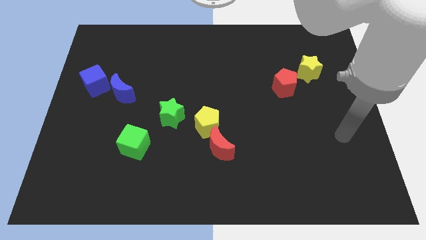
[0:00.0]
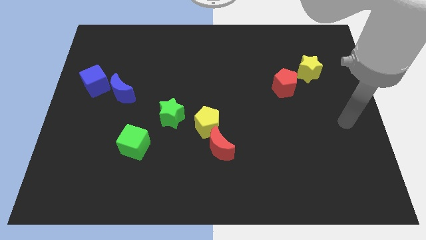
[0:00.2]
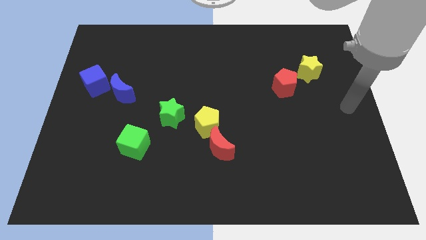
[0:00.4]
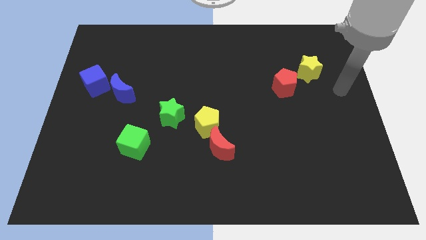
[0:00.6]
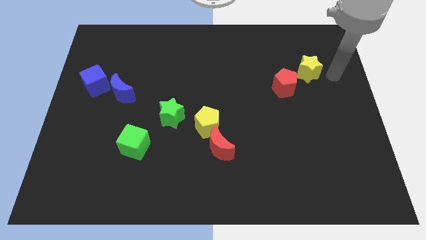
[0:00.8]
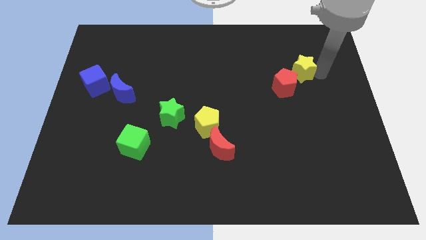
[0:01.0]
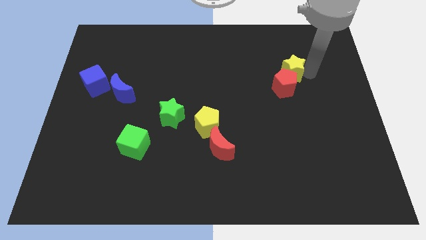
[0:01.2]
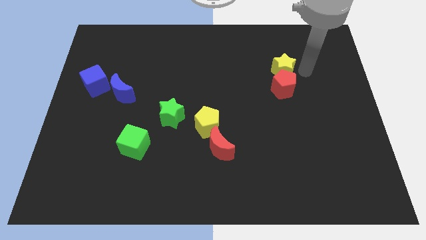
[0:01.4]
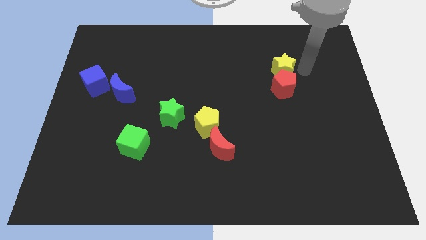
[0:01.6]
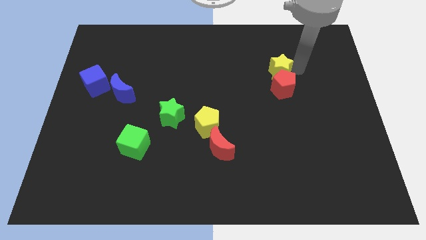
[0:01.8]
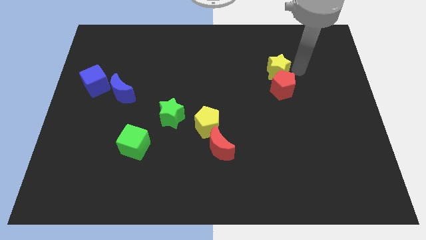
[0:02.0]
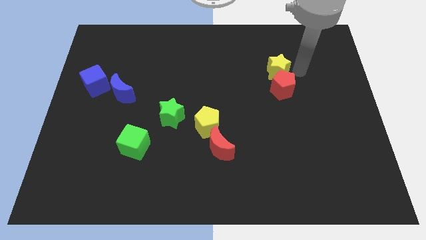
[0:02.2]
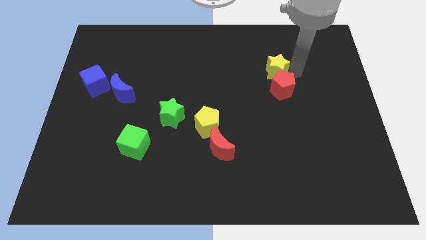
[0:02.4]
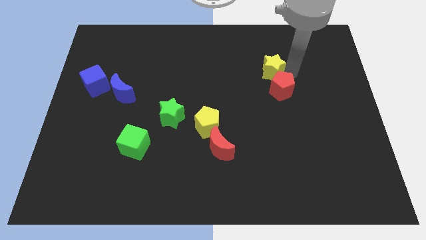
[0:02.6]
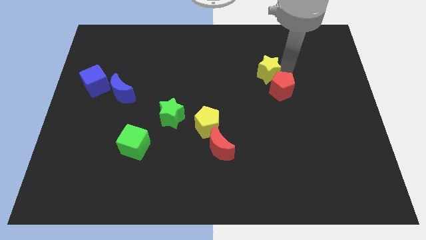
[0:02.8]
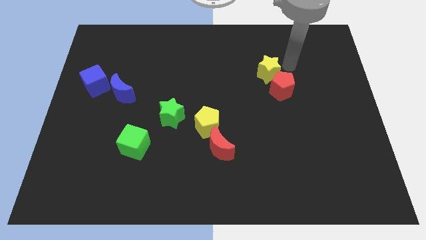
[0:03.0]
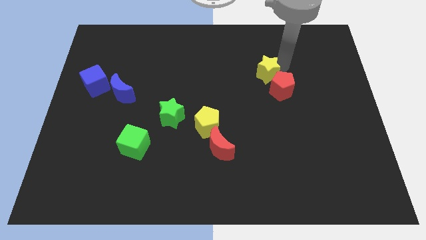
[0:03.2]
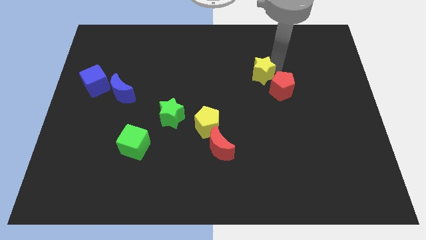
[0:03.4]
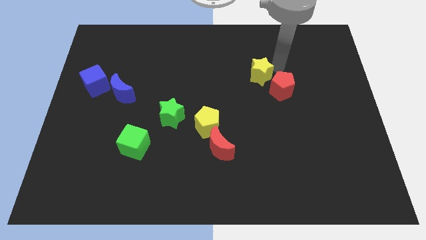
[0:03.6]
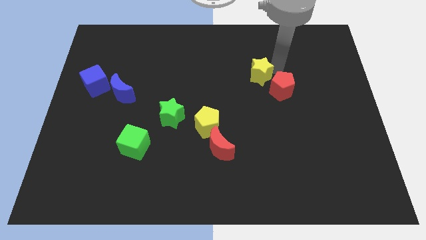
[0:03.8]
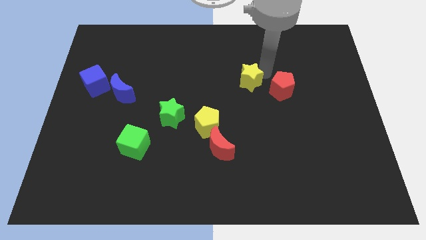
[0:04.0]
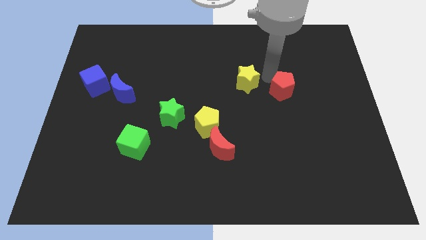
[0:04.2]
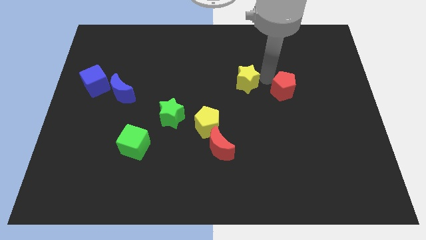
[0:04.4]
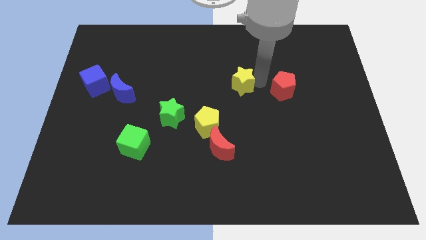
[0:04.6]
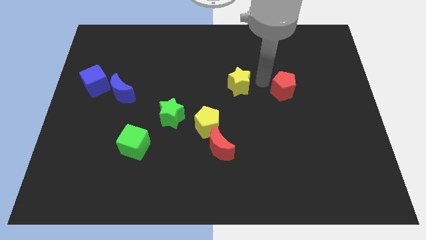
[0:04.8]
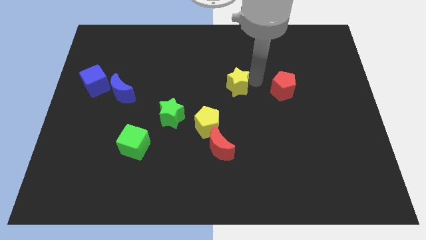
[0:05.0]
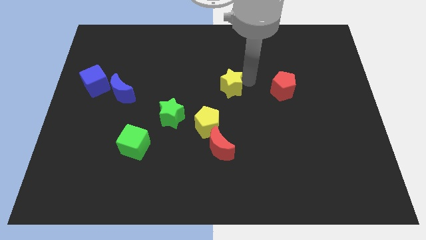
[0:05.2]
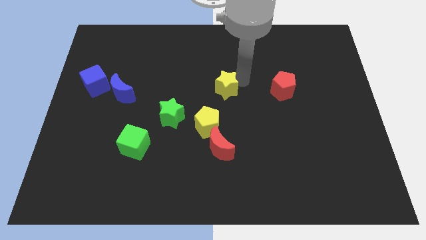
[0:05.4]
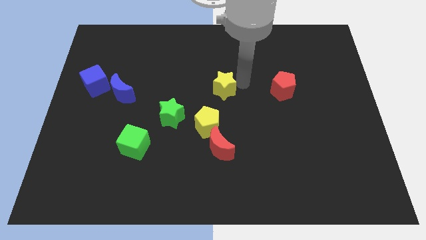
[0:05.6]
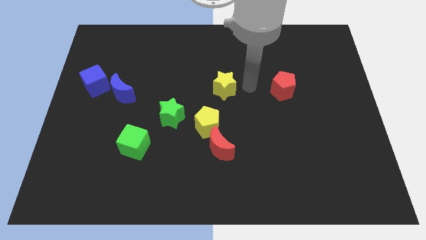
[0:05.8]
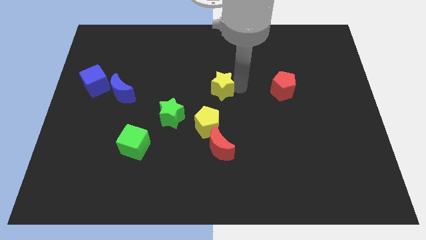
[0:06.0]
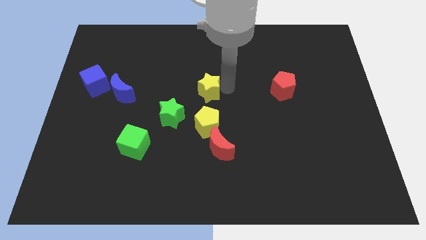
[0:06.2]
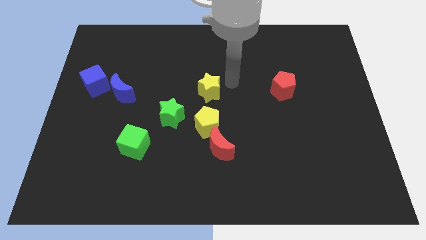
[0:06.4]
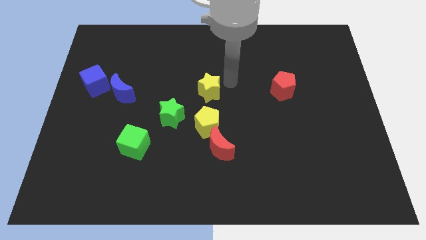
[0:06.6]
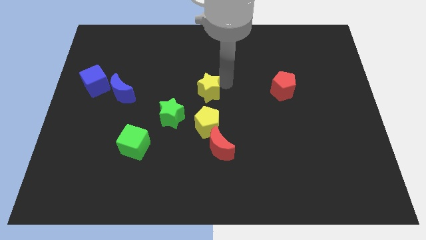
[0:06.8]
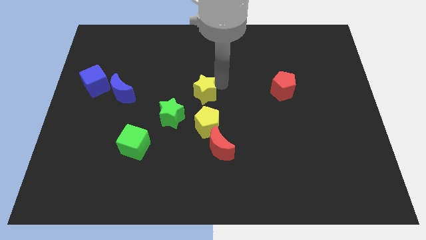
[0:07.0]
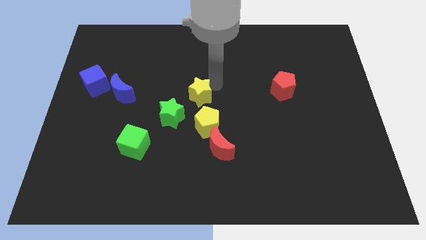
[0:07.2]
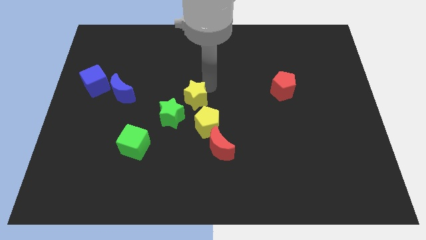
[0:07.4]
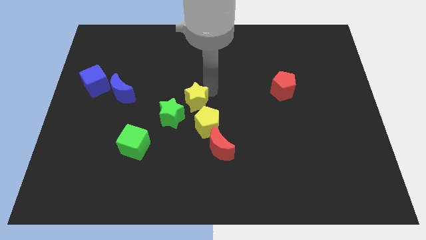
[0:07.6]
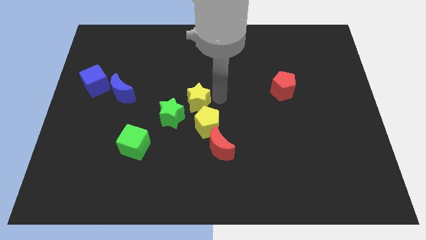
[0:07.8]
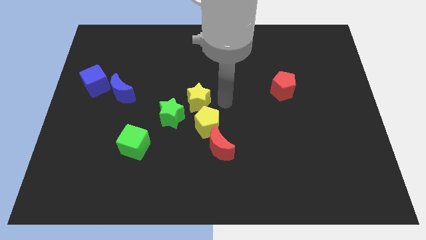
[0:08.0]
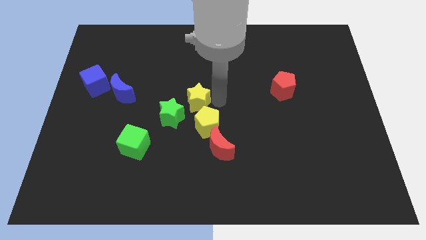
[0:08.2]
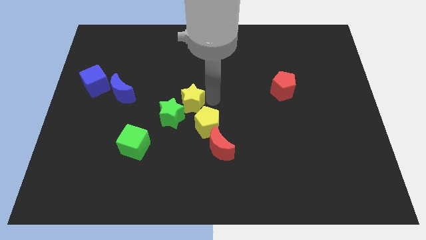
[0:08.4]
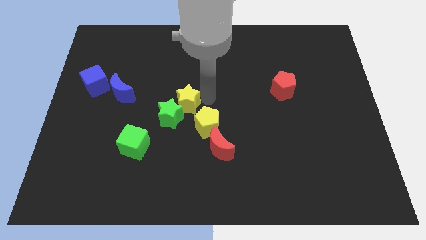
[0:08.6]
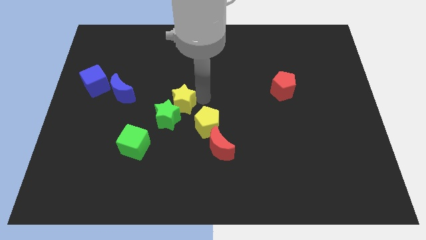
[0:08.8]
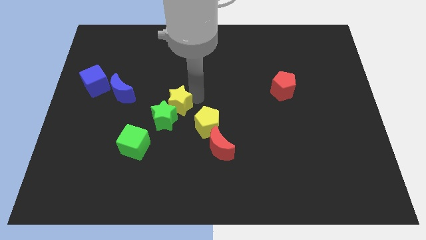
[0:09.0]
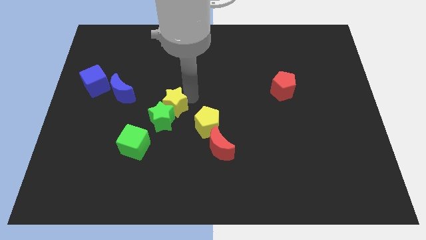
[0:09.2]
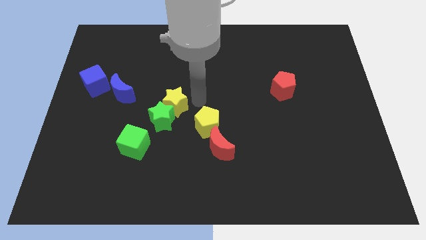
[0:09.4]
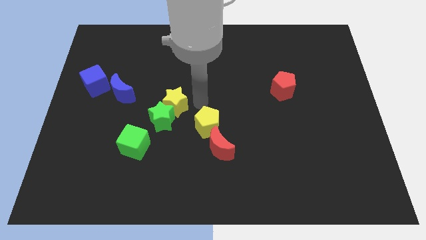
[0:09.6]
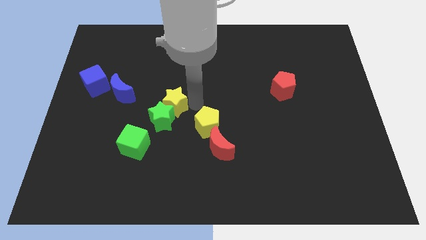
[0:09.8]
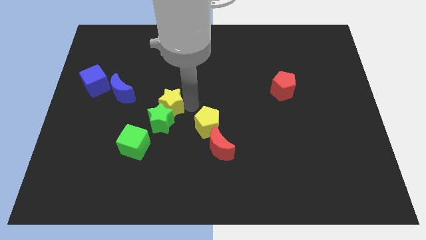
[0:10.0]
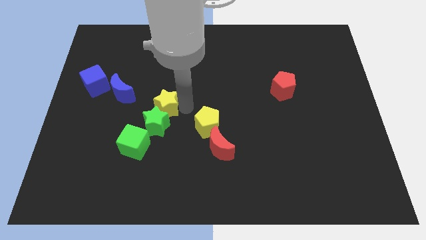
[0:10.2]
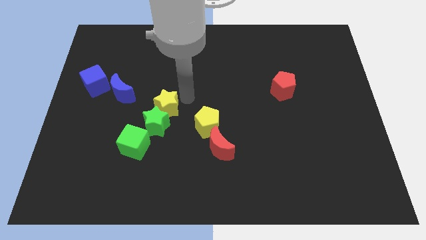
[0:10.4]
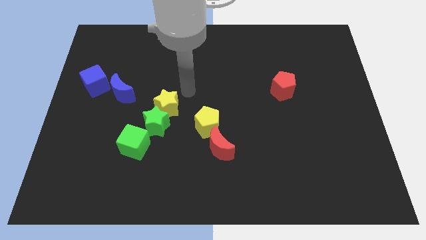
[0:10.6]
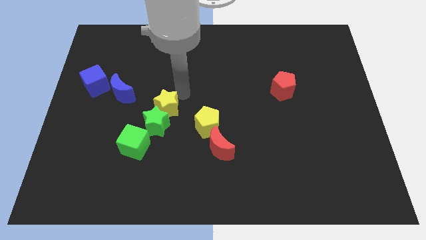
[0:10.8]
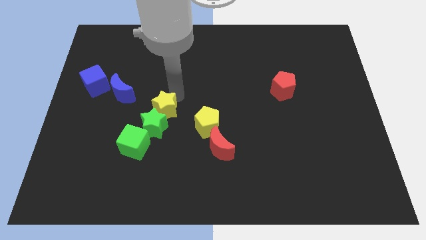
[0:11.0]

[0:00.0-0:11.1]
put the yellow star left of the yellow pentagon

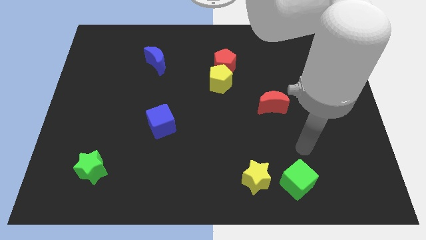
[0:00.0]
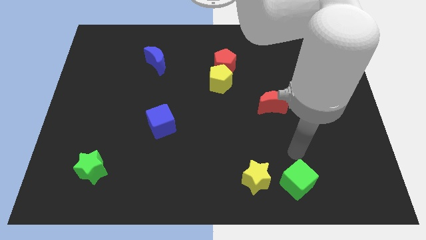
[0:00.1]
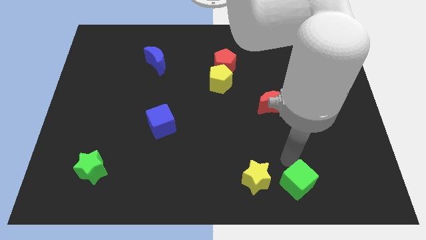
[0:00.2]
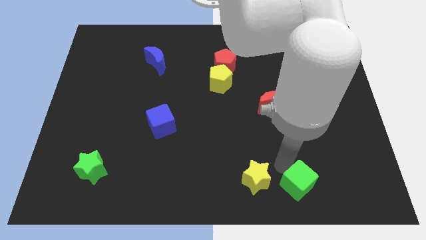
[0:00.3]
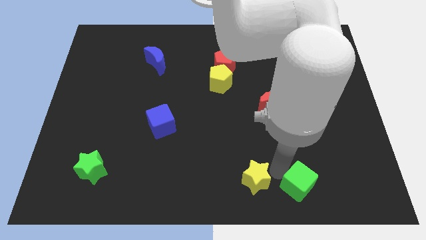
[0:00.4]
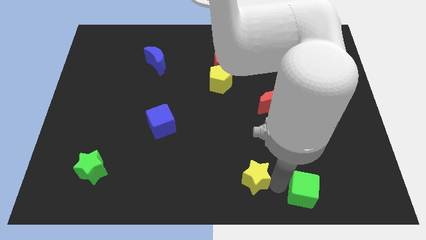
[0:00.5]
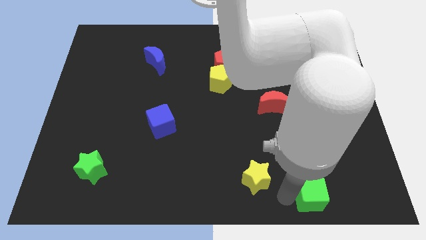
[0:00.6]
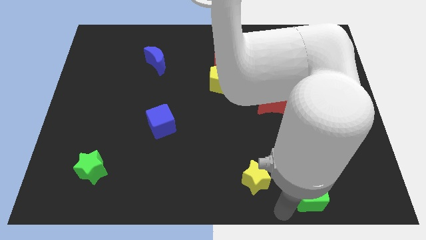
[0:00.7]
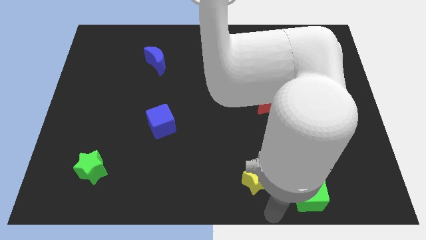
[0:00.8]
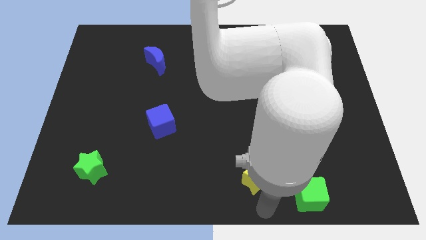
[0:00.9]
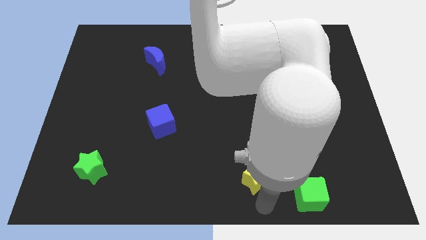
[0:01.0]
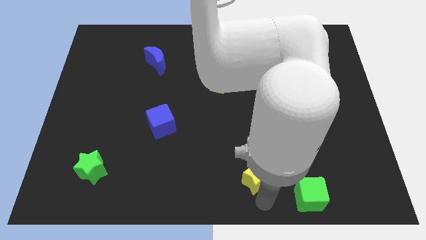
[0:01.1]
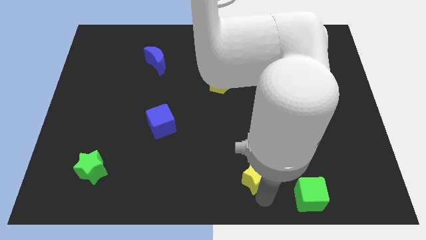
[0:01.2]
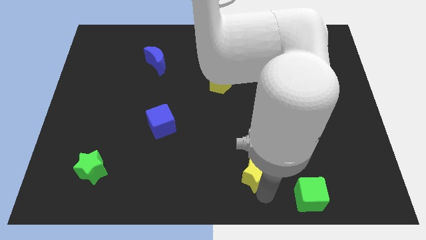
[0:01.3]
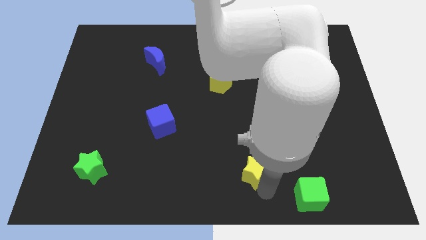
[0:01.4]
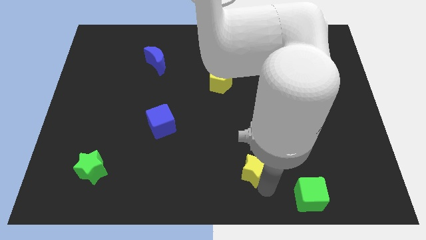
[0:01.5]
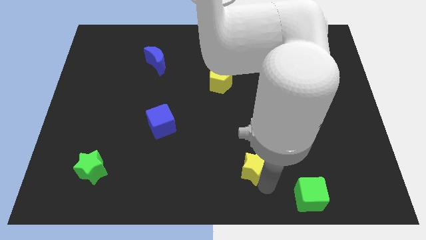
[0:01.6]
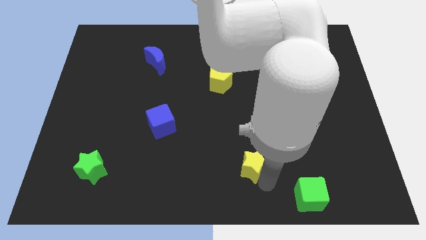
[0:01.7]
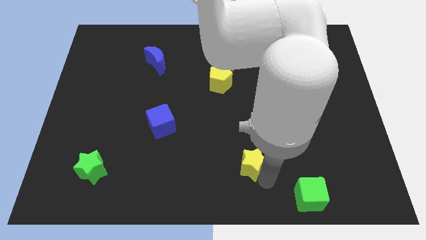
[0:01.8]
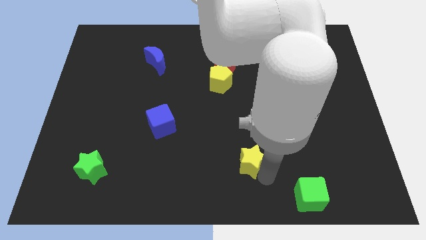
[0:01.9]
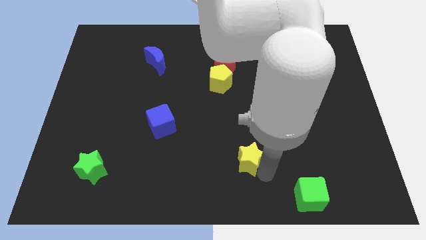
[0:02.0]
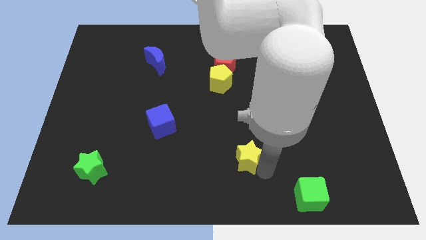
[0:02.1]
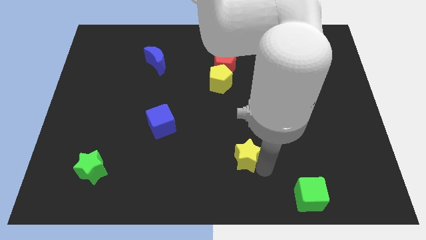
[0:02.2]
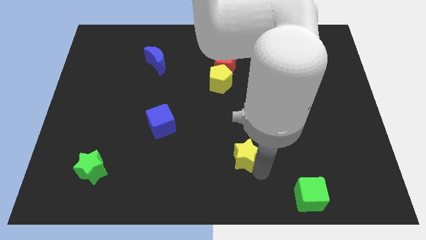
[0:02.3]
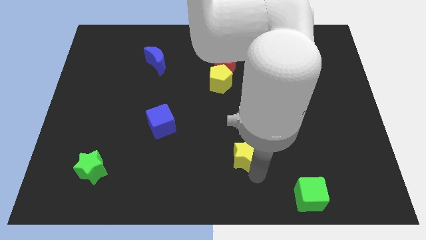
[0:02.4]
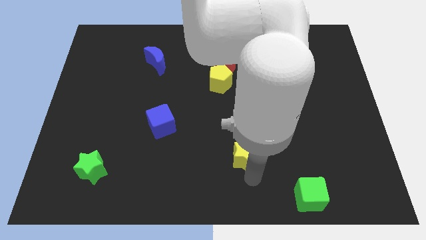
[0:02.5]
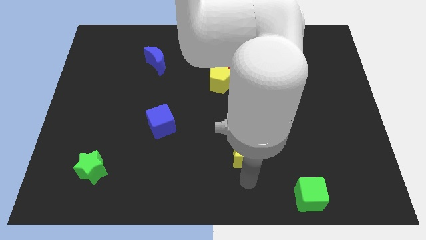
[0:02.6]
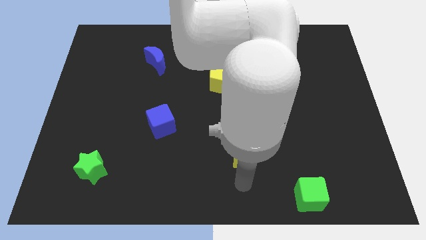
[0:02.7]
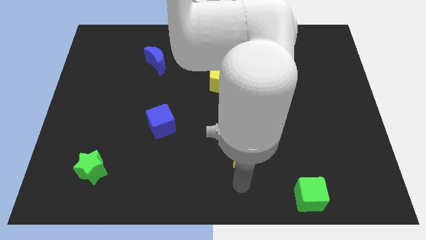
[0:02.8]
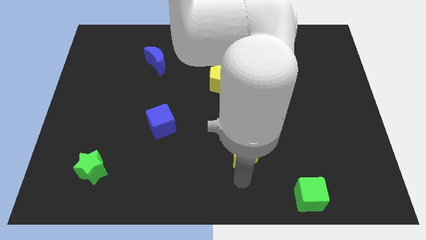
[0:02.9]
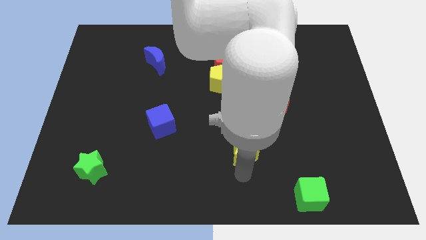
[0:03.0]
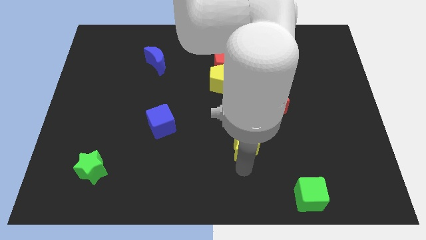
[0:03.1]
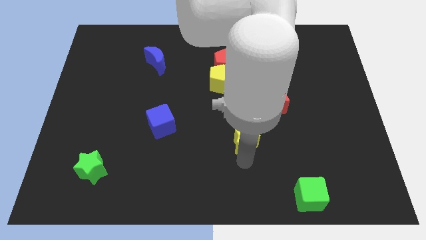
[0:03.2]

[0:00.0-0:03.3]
push the yellow star to the bottom left side of the red moon
